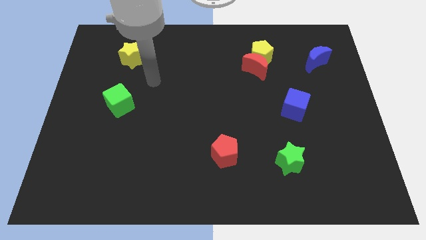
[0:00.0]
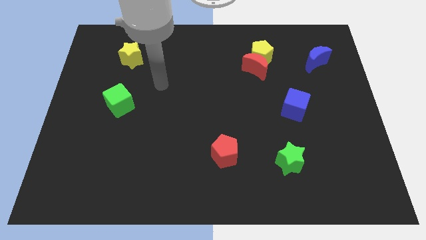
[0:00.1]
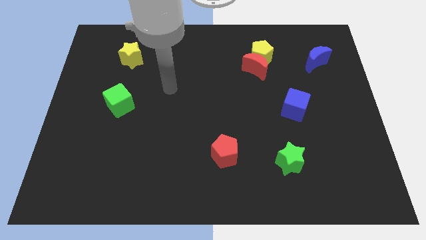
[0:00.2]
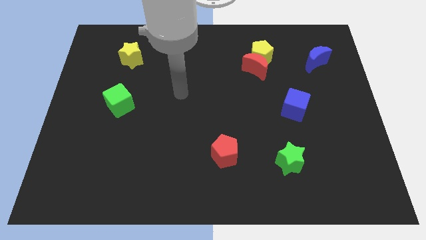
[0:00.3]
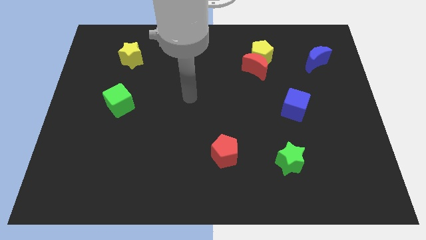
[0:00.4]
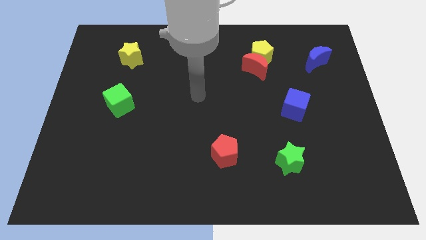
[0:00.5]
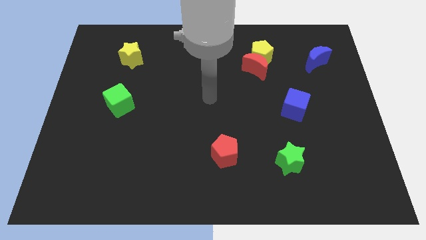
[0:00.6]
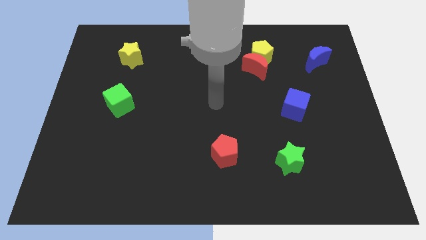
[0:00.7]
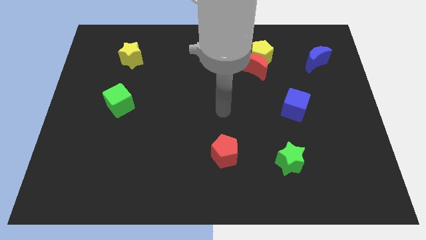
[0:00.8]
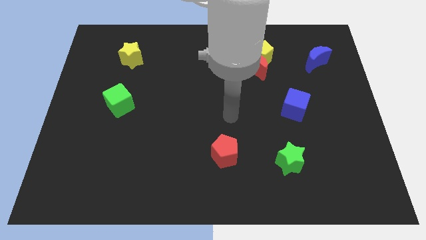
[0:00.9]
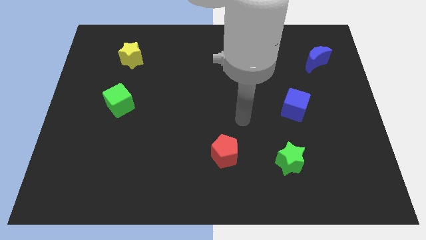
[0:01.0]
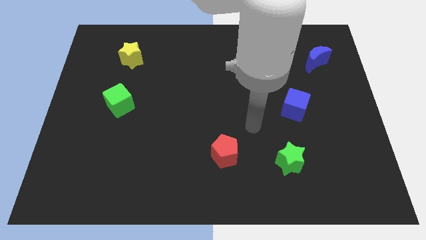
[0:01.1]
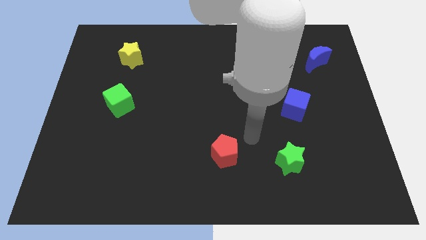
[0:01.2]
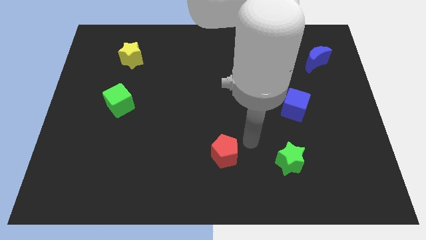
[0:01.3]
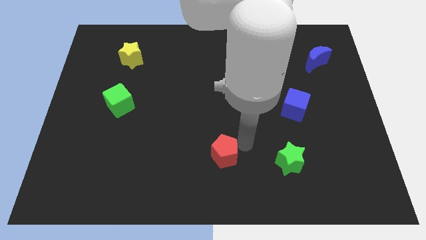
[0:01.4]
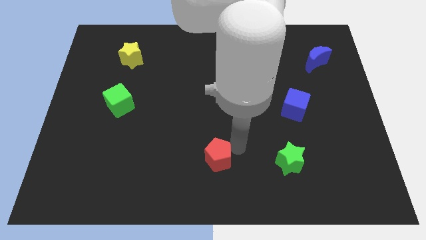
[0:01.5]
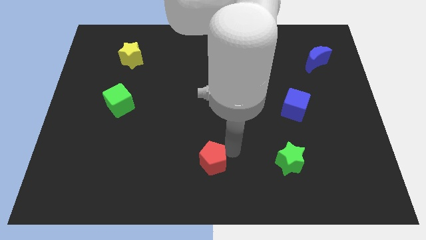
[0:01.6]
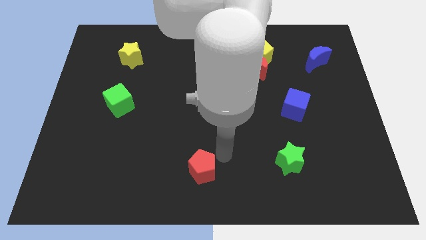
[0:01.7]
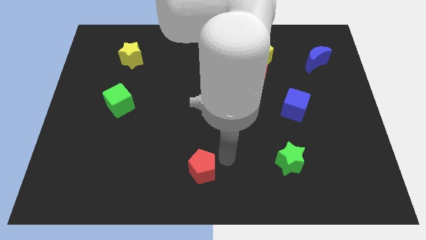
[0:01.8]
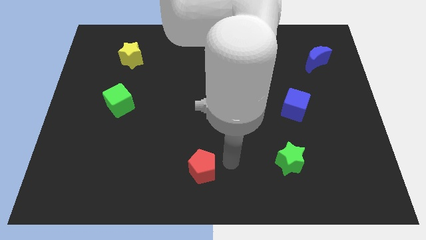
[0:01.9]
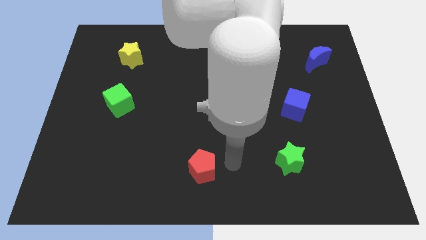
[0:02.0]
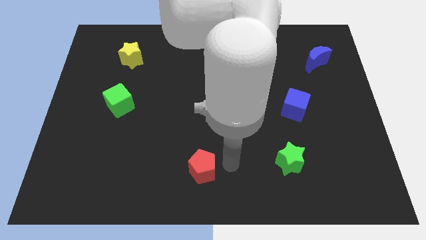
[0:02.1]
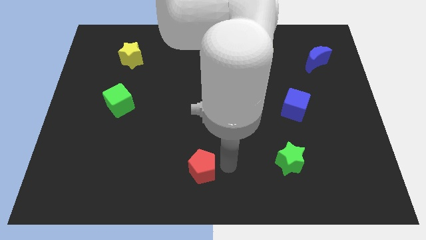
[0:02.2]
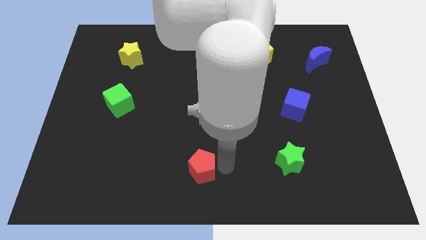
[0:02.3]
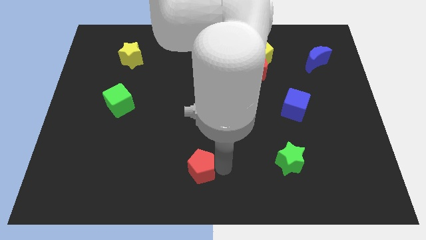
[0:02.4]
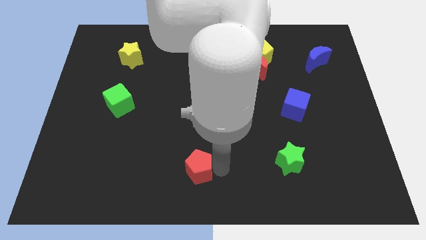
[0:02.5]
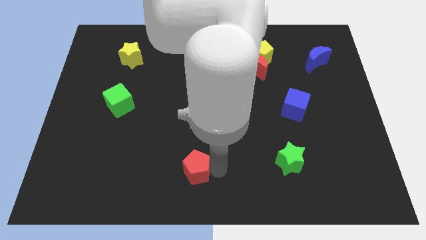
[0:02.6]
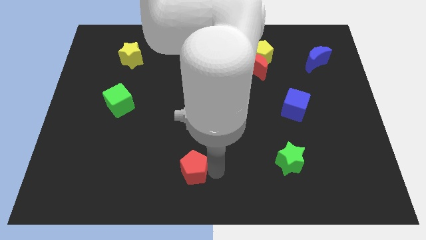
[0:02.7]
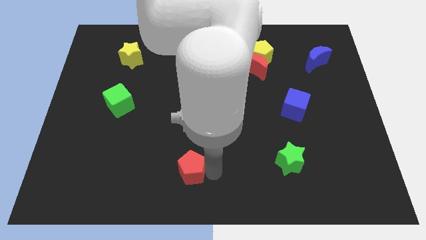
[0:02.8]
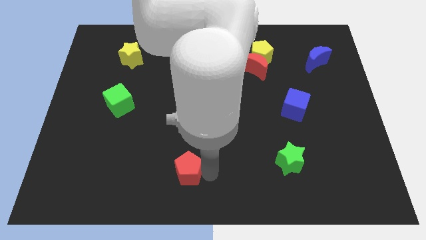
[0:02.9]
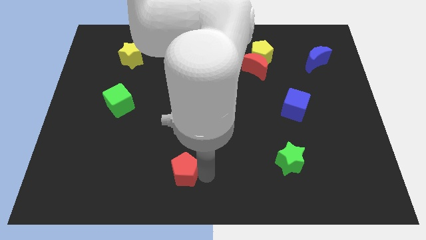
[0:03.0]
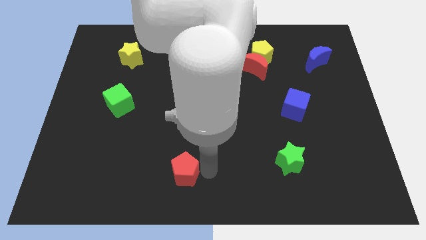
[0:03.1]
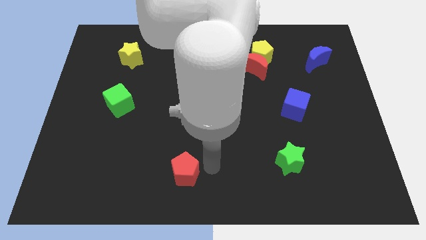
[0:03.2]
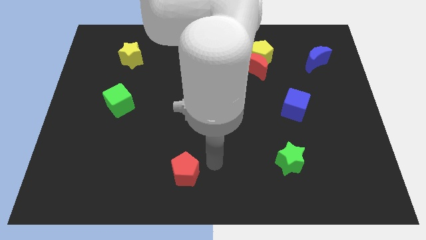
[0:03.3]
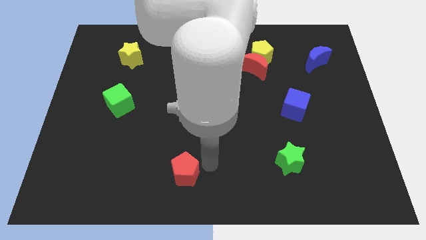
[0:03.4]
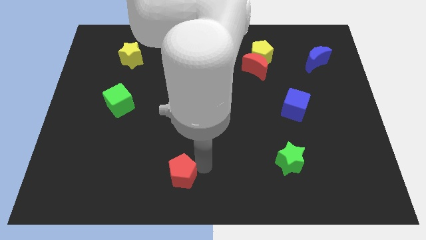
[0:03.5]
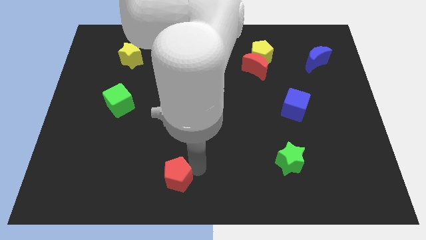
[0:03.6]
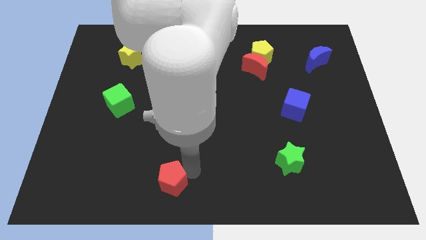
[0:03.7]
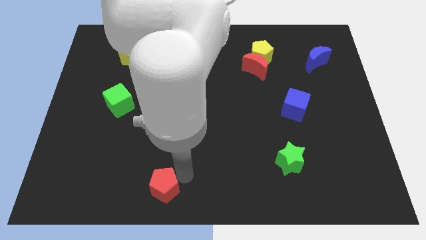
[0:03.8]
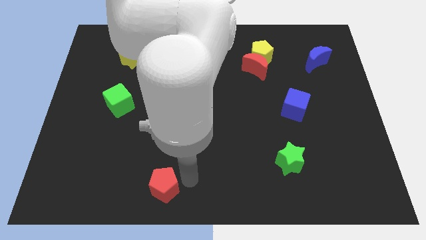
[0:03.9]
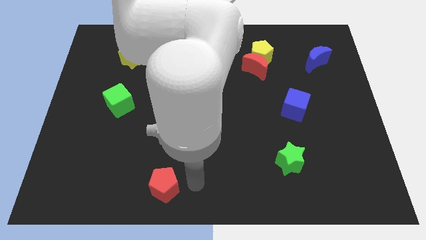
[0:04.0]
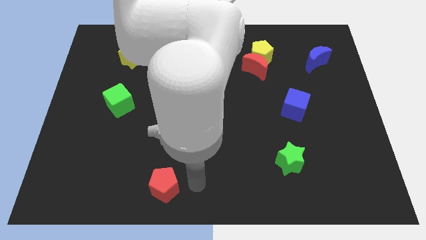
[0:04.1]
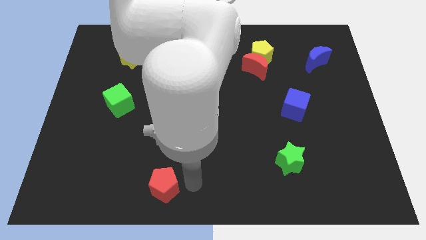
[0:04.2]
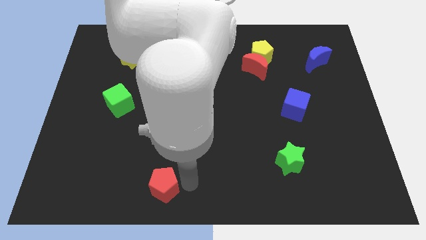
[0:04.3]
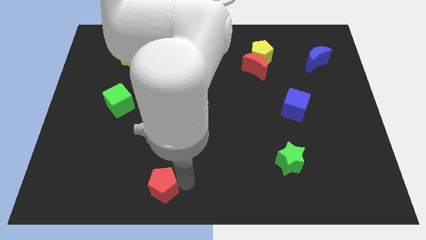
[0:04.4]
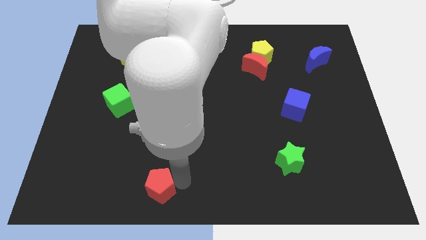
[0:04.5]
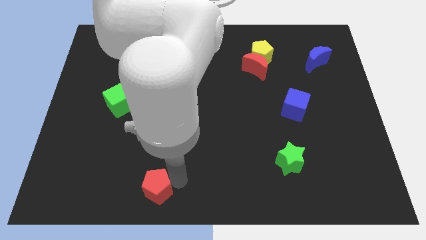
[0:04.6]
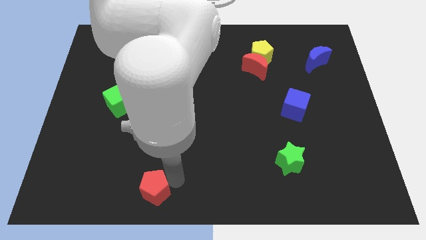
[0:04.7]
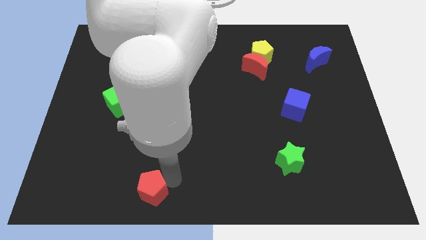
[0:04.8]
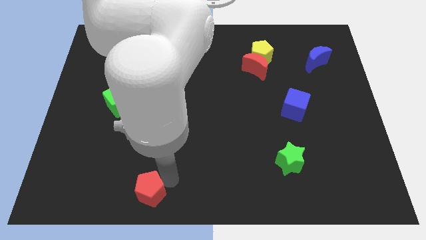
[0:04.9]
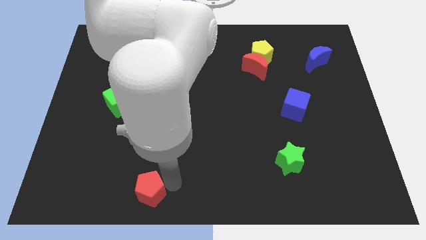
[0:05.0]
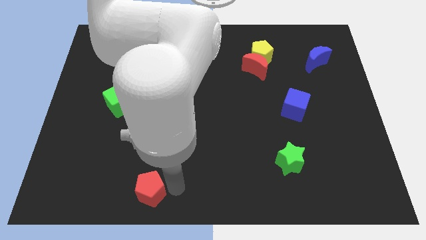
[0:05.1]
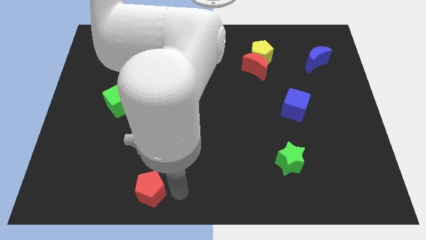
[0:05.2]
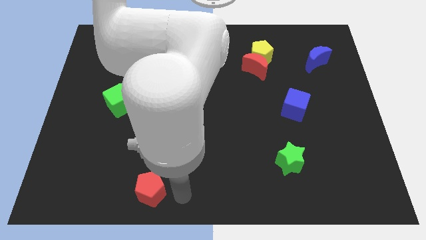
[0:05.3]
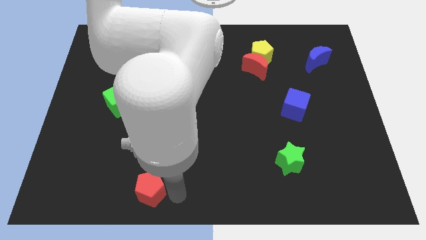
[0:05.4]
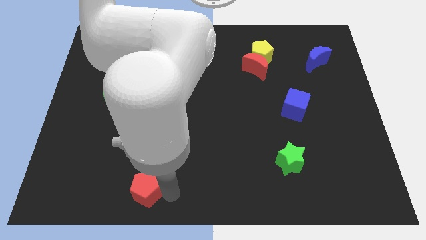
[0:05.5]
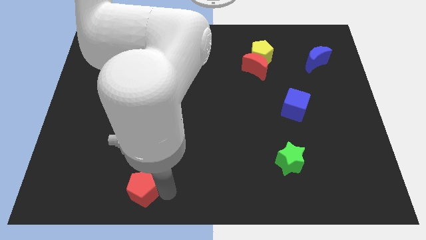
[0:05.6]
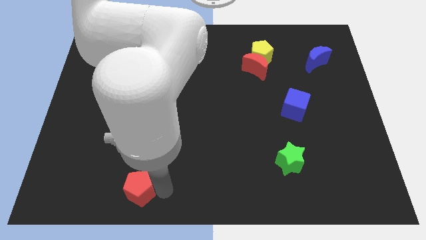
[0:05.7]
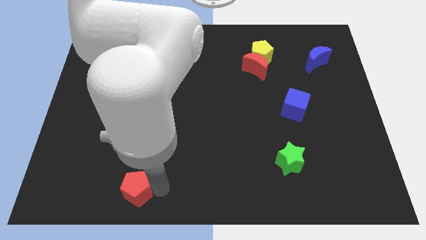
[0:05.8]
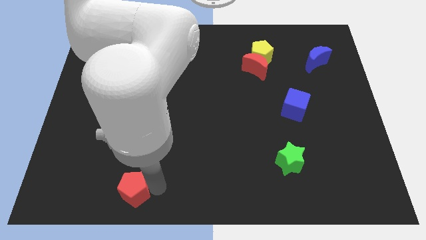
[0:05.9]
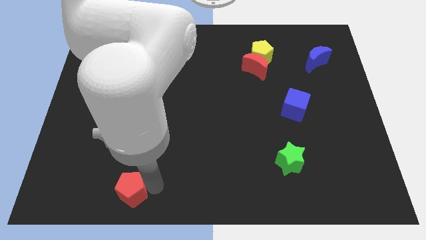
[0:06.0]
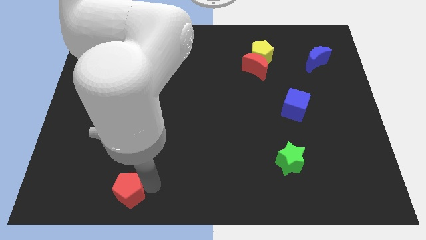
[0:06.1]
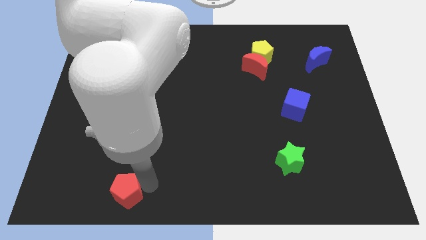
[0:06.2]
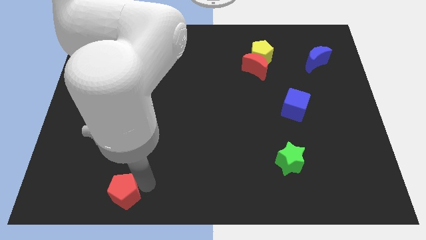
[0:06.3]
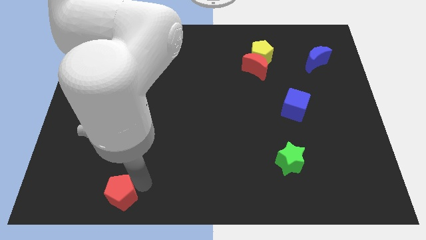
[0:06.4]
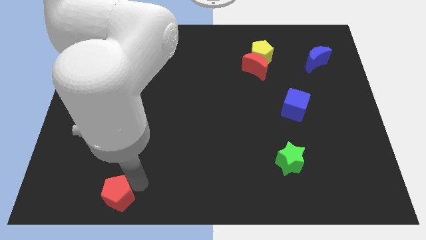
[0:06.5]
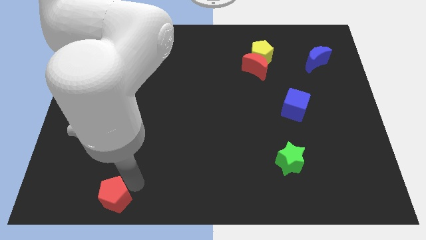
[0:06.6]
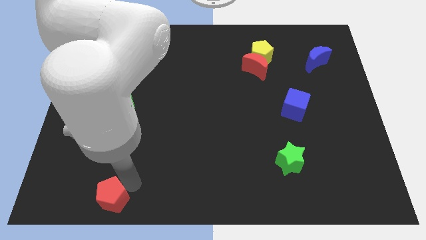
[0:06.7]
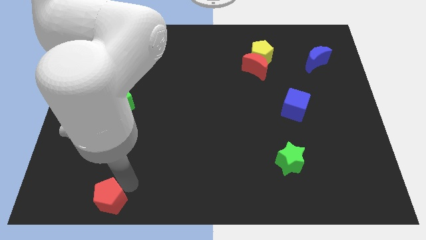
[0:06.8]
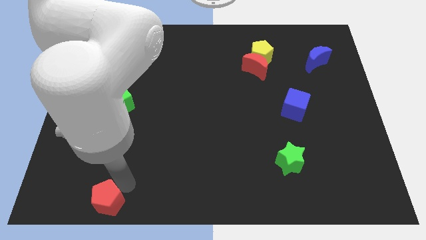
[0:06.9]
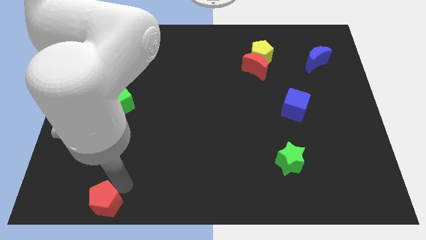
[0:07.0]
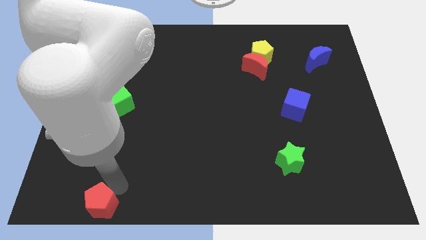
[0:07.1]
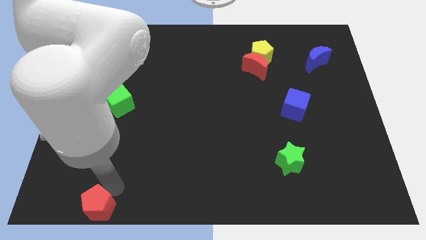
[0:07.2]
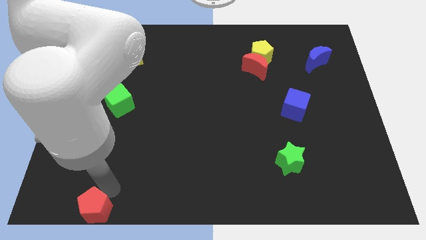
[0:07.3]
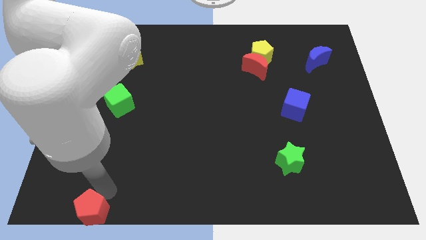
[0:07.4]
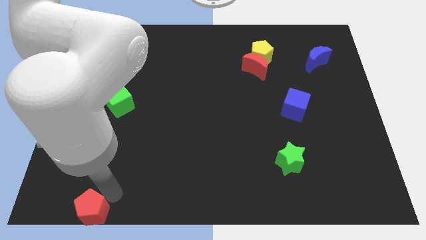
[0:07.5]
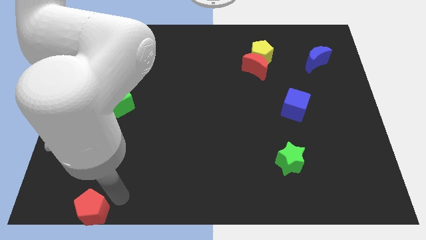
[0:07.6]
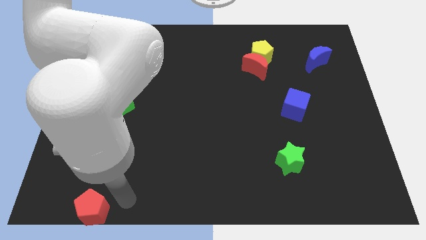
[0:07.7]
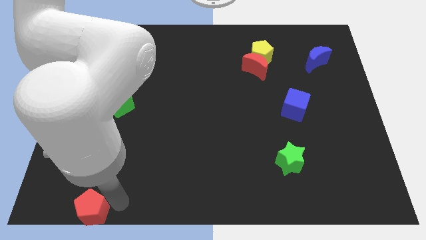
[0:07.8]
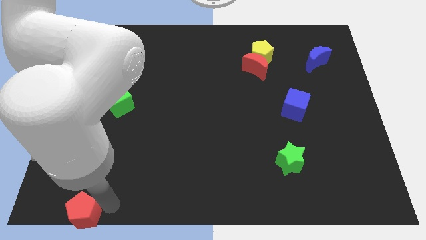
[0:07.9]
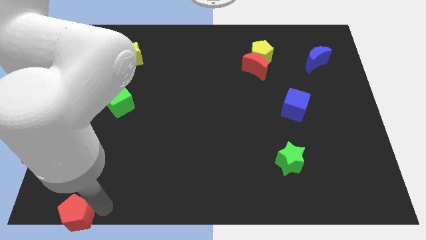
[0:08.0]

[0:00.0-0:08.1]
push the red pentagon to the bottom left of the board
